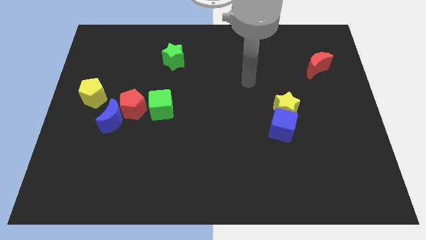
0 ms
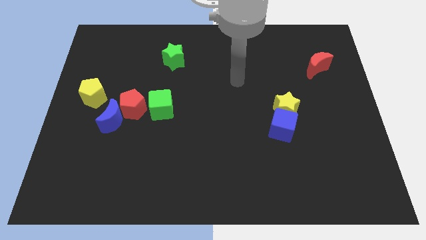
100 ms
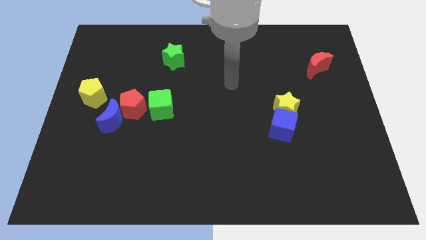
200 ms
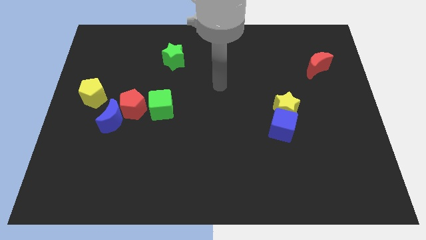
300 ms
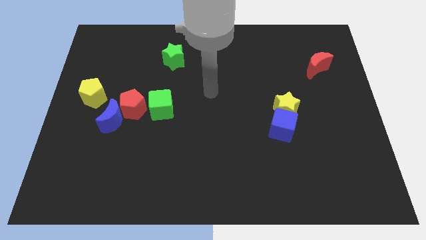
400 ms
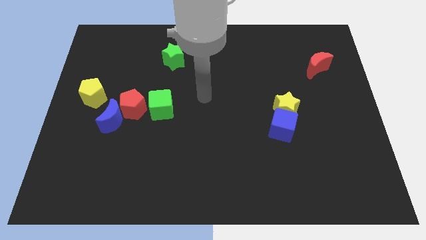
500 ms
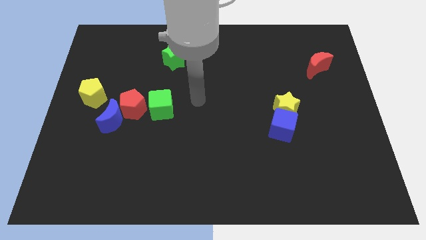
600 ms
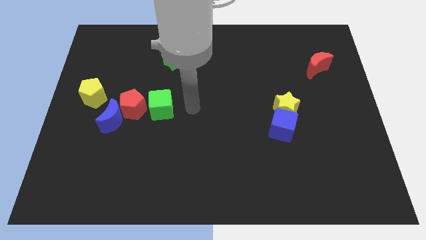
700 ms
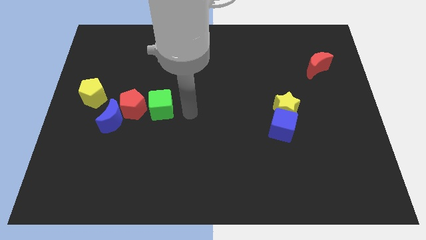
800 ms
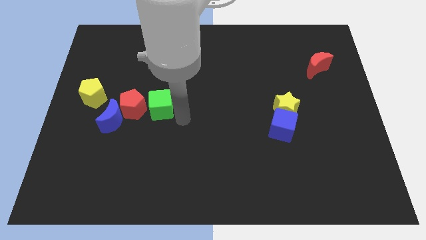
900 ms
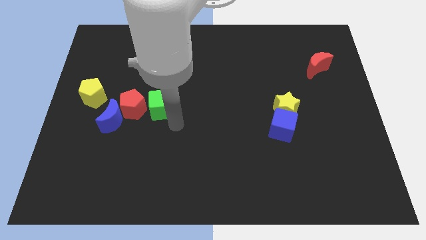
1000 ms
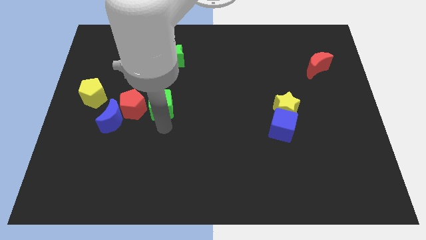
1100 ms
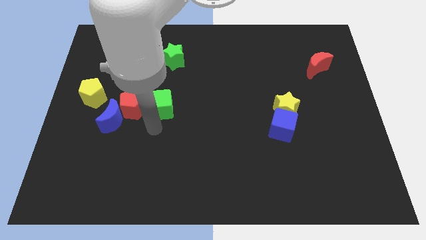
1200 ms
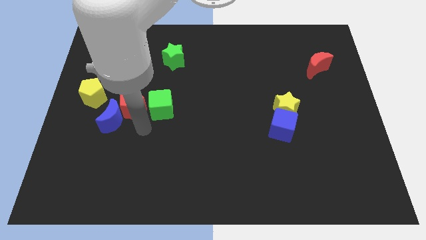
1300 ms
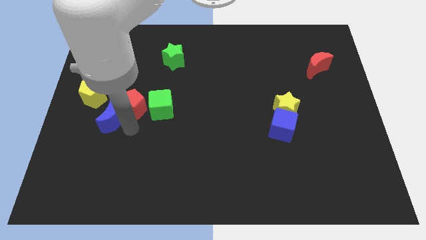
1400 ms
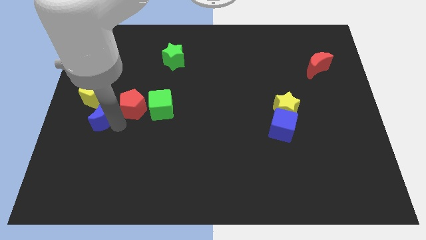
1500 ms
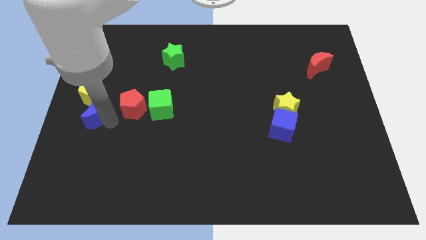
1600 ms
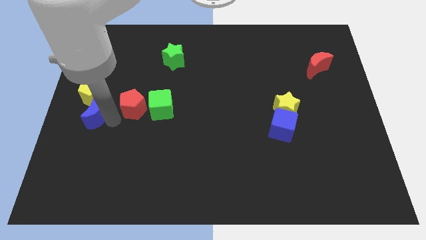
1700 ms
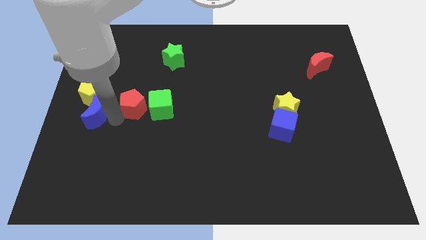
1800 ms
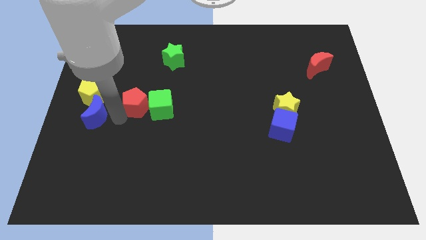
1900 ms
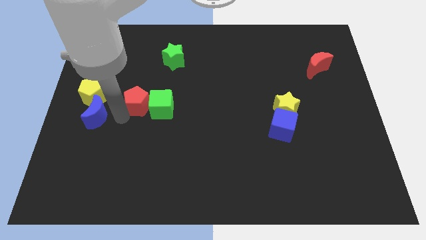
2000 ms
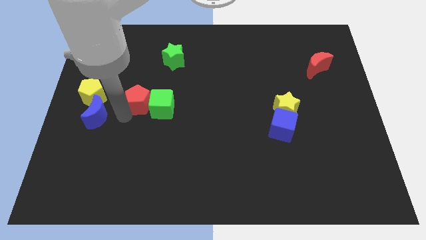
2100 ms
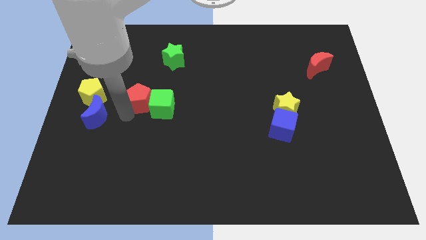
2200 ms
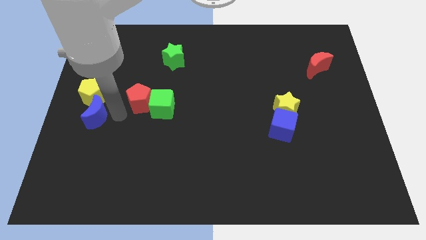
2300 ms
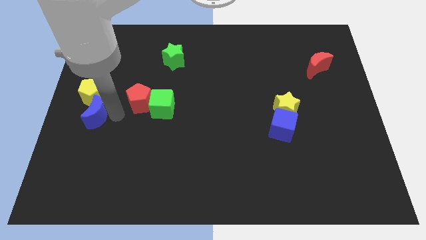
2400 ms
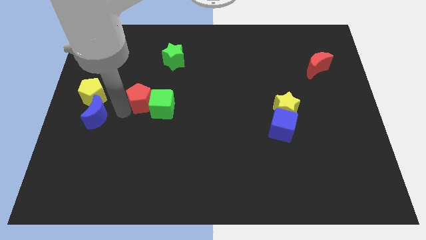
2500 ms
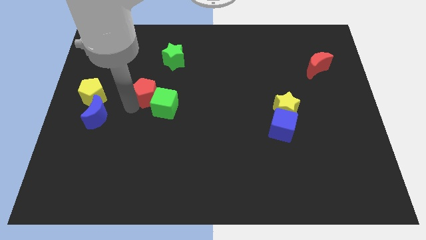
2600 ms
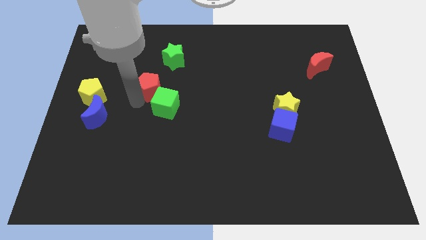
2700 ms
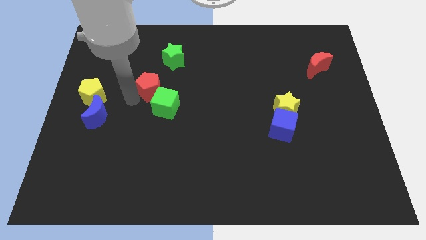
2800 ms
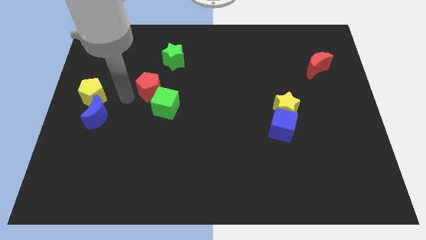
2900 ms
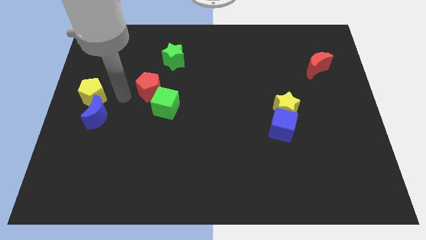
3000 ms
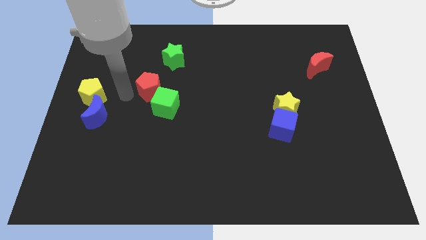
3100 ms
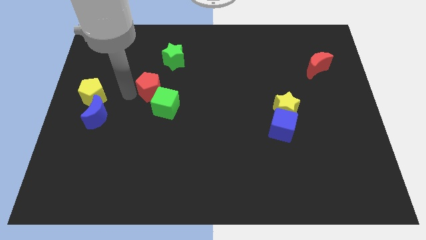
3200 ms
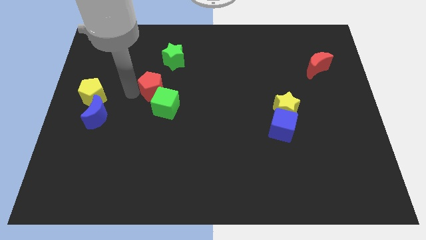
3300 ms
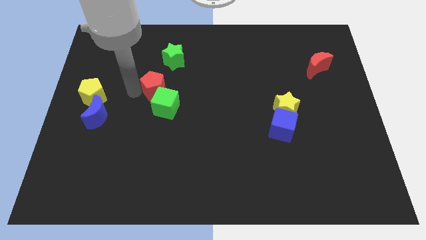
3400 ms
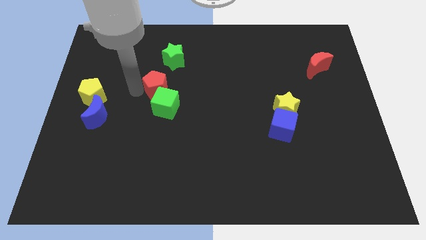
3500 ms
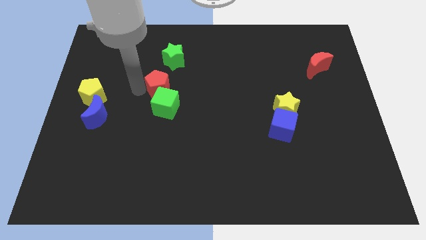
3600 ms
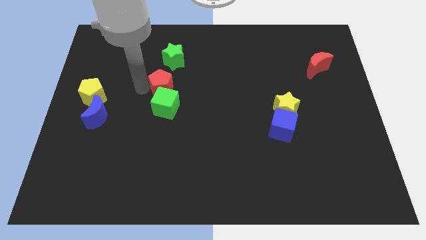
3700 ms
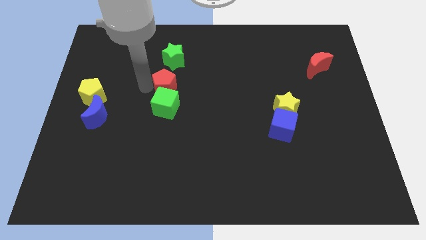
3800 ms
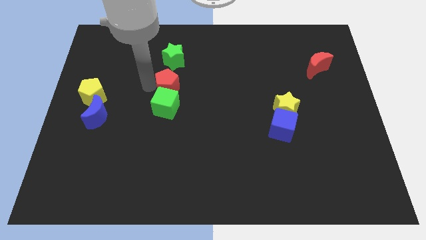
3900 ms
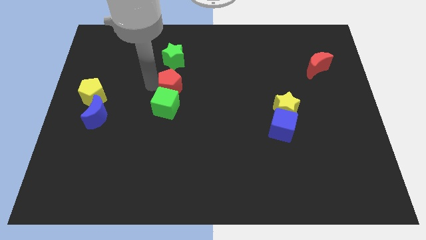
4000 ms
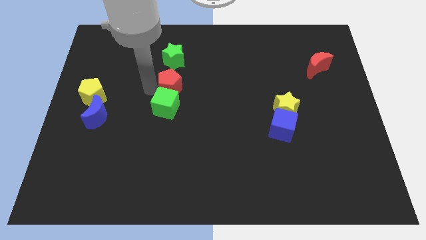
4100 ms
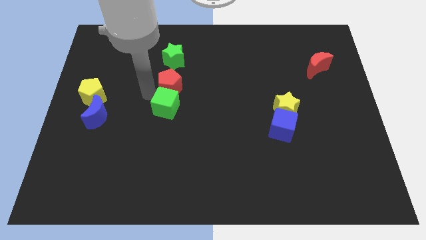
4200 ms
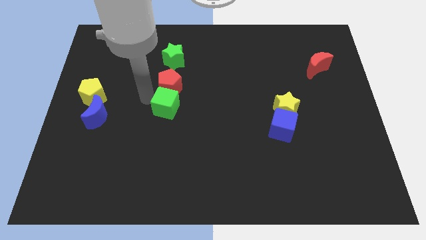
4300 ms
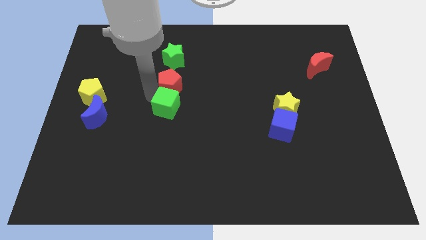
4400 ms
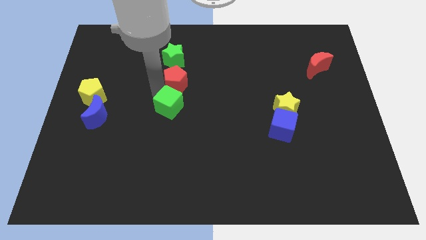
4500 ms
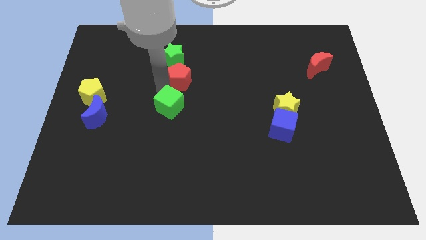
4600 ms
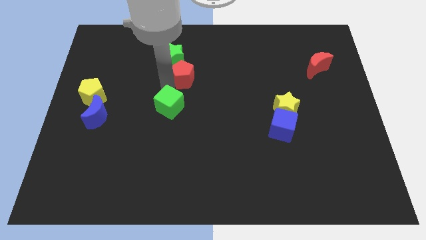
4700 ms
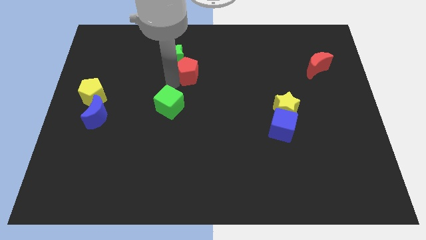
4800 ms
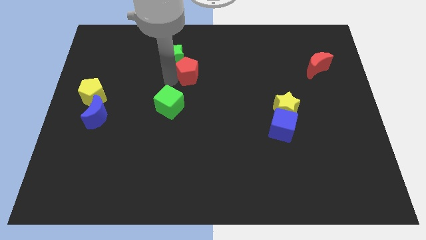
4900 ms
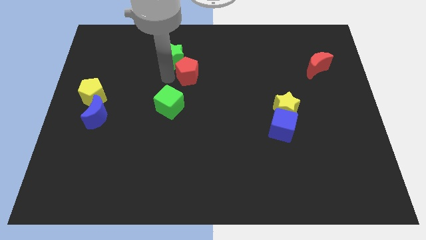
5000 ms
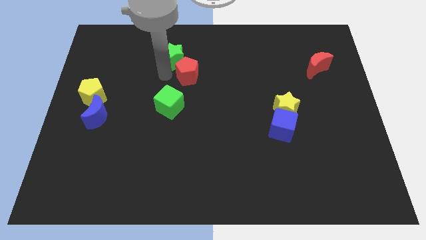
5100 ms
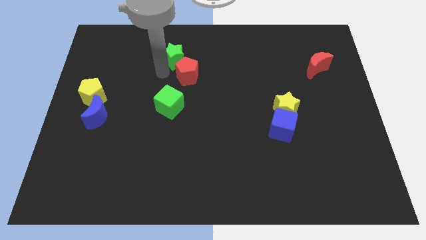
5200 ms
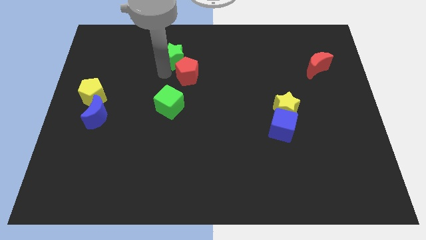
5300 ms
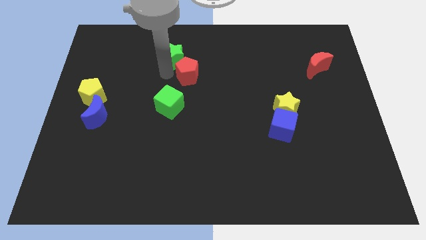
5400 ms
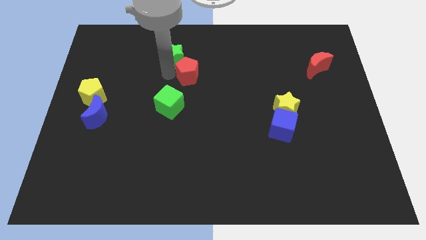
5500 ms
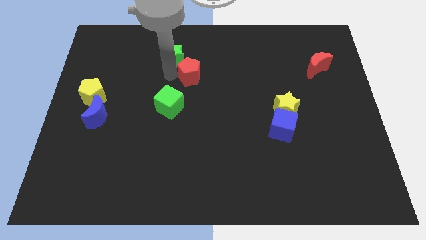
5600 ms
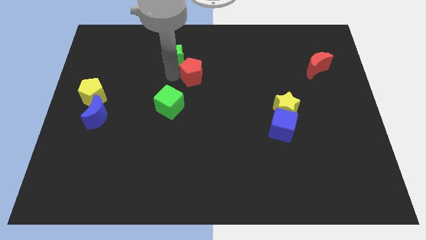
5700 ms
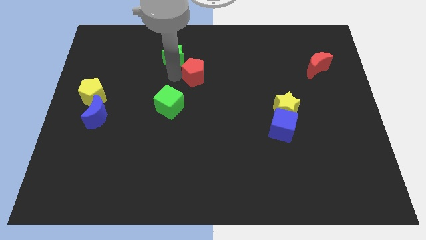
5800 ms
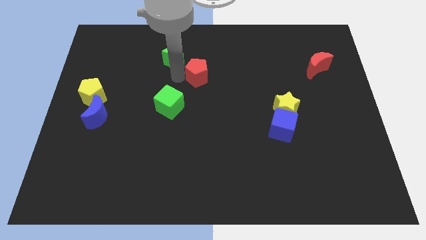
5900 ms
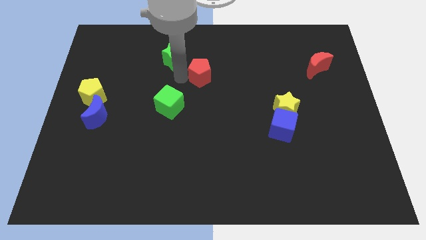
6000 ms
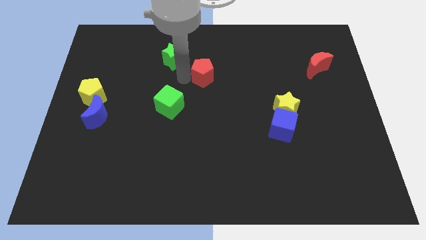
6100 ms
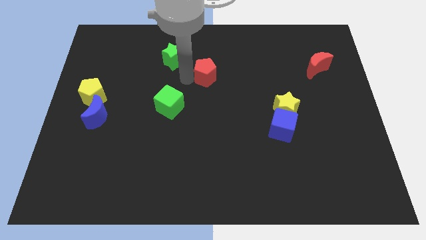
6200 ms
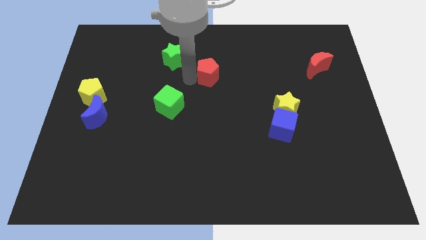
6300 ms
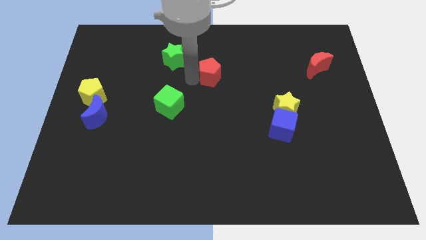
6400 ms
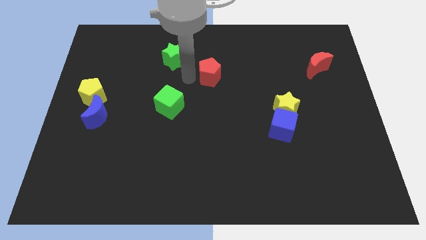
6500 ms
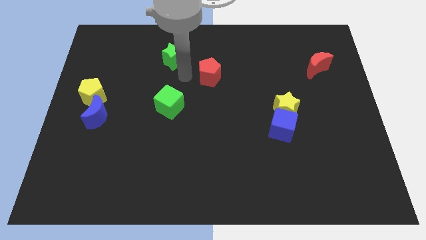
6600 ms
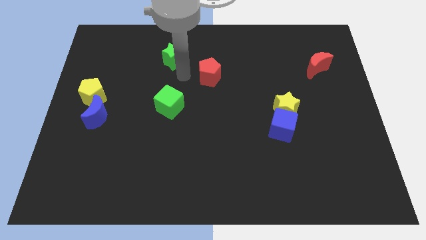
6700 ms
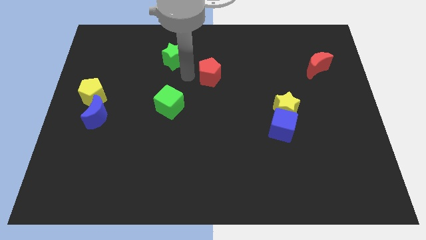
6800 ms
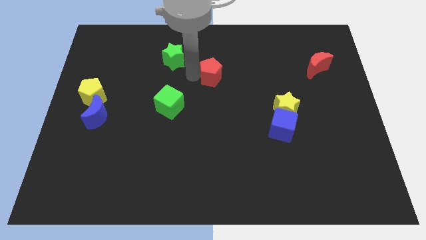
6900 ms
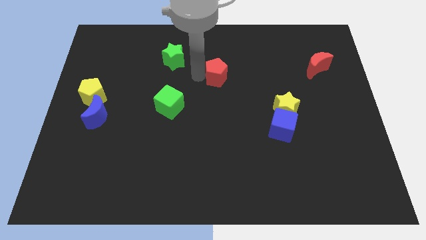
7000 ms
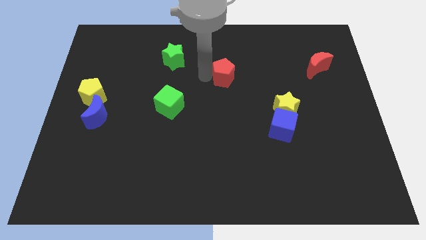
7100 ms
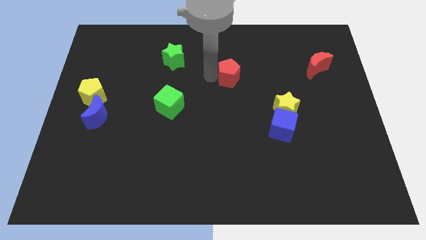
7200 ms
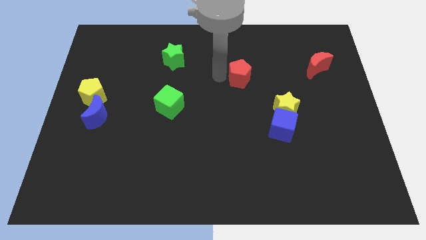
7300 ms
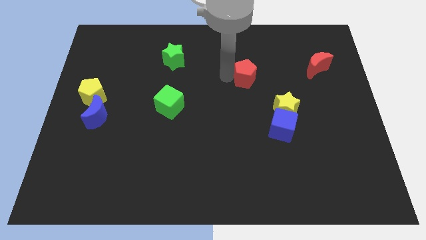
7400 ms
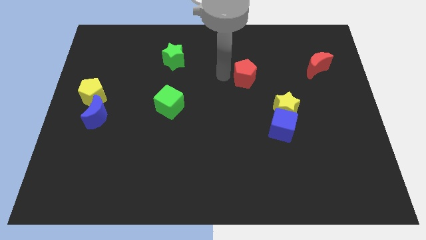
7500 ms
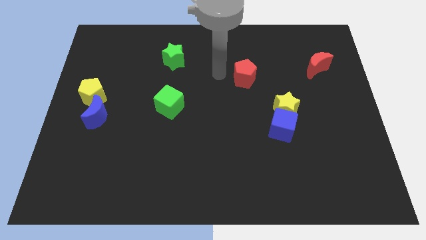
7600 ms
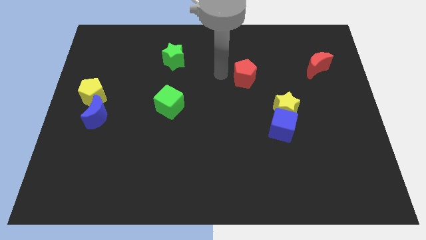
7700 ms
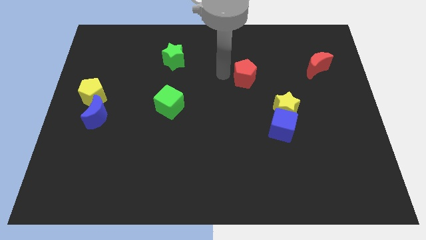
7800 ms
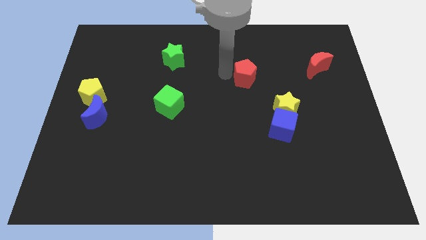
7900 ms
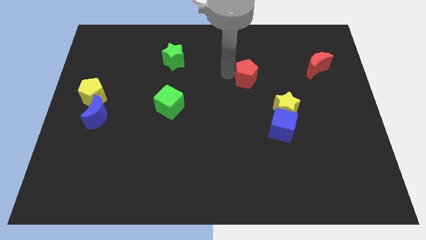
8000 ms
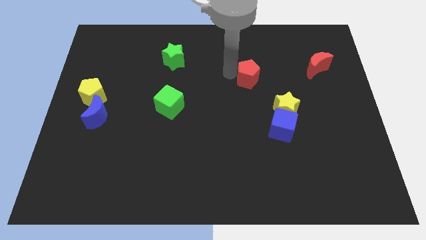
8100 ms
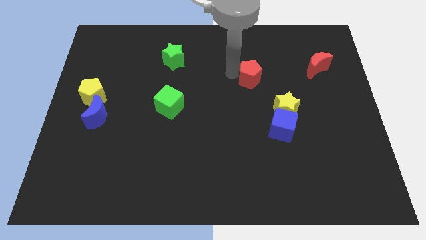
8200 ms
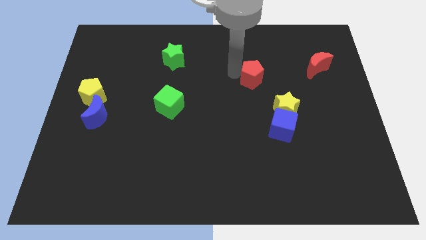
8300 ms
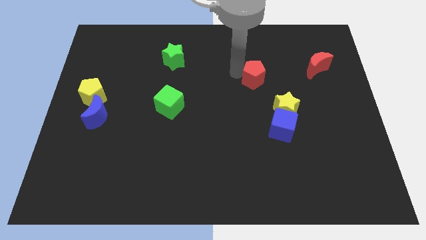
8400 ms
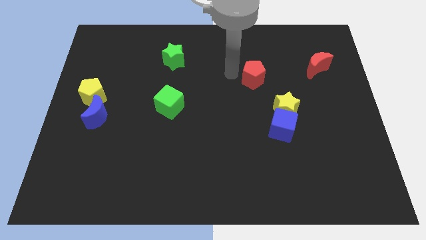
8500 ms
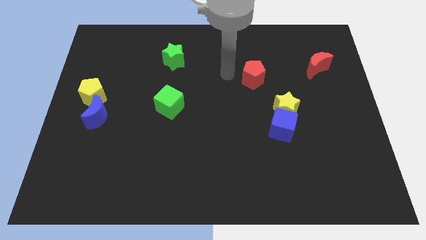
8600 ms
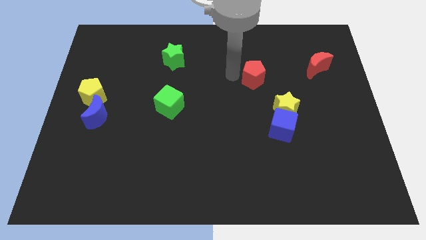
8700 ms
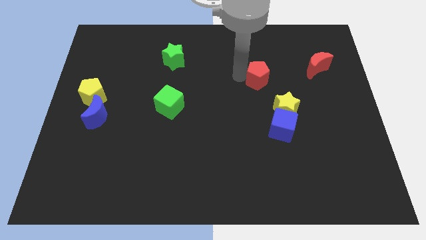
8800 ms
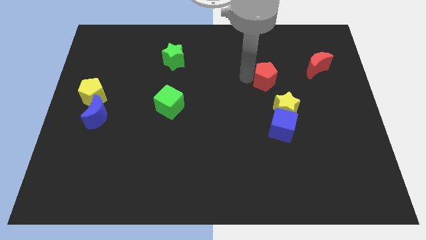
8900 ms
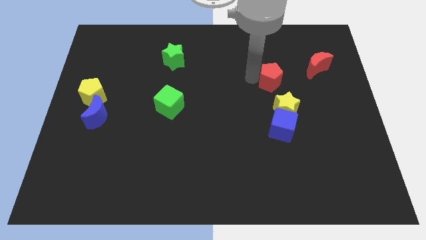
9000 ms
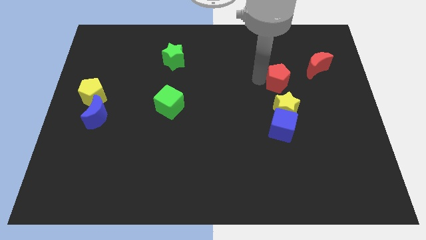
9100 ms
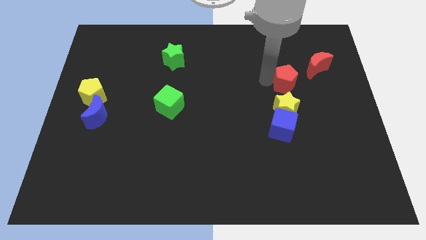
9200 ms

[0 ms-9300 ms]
slide the red pentagon to the bottom left of the red moon
